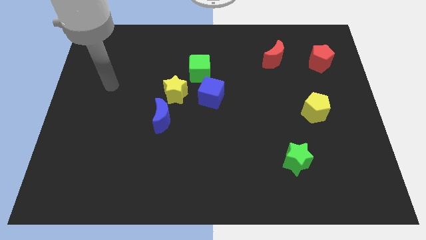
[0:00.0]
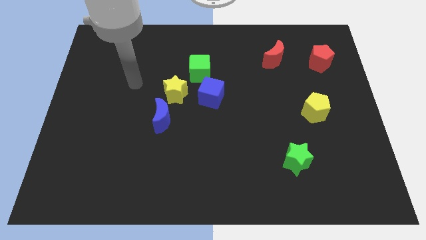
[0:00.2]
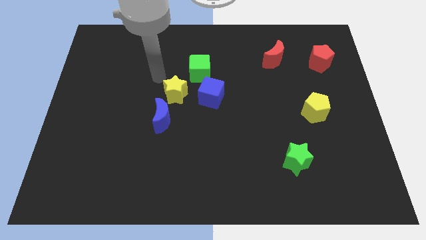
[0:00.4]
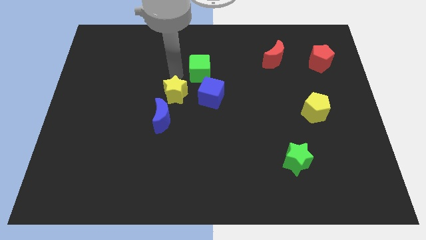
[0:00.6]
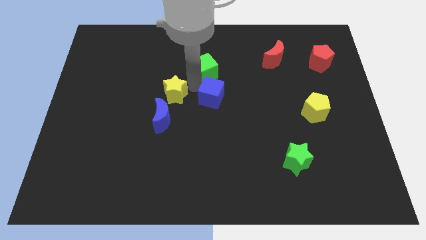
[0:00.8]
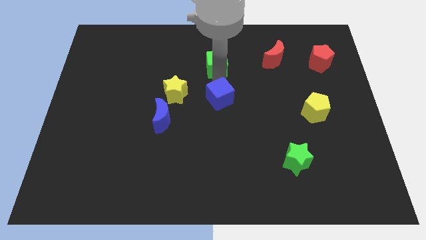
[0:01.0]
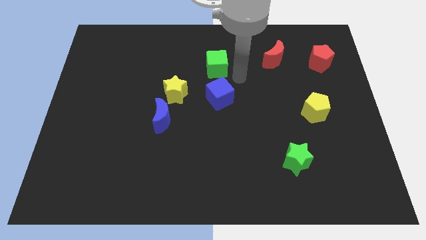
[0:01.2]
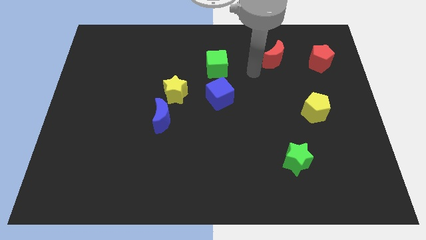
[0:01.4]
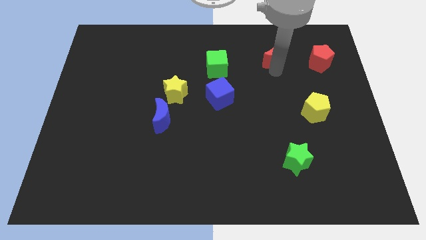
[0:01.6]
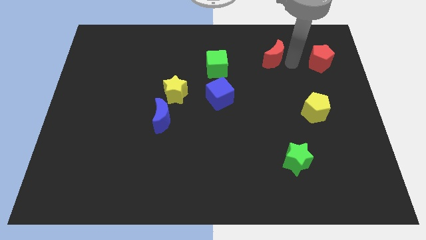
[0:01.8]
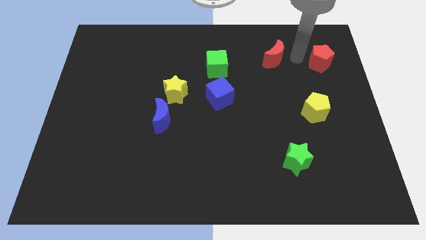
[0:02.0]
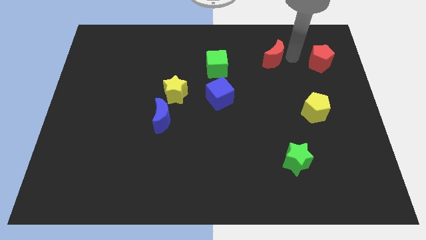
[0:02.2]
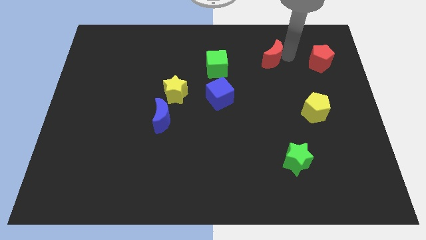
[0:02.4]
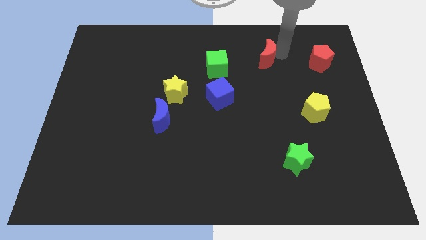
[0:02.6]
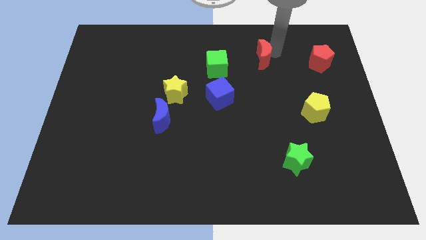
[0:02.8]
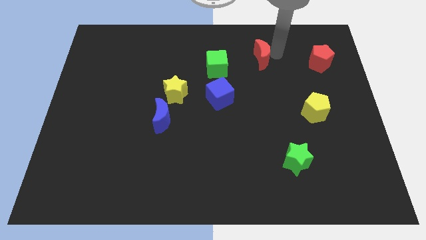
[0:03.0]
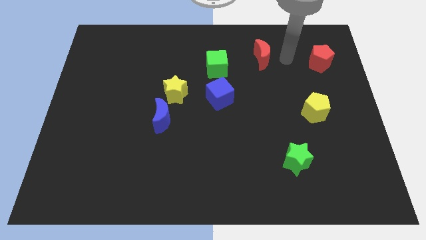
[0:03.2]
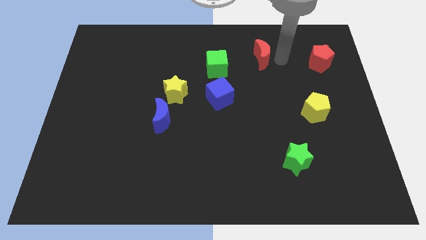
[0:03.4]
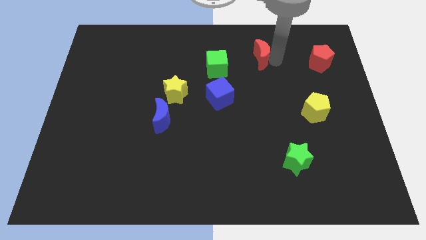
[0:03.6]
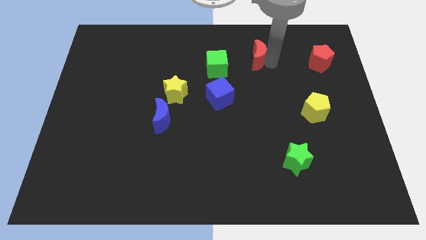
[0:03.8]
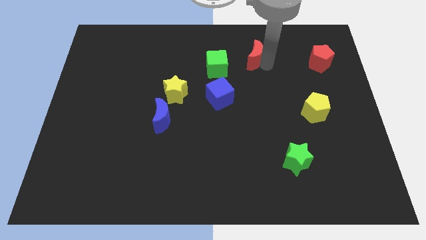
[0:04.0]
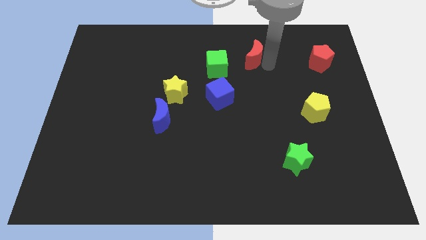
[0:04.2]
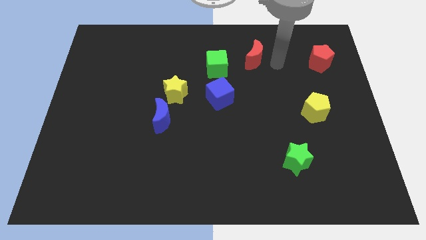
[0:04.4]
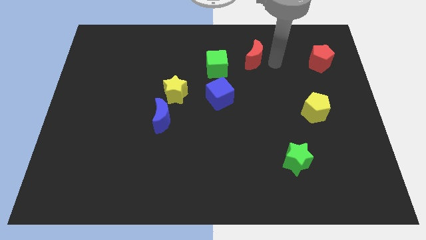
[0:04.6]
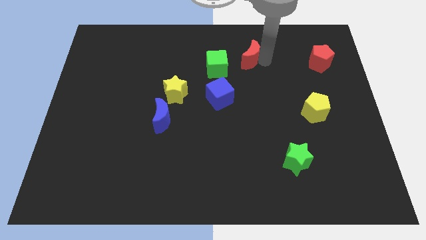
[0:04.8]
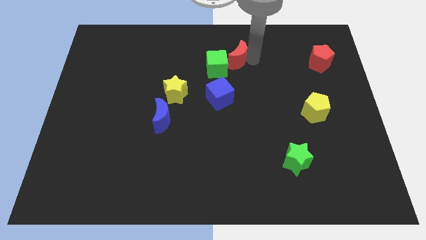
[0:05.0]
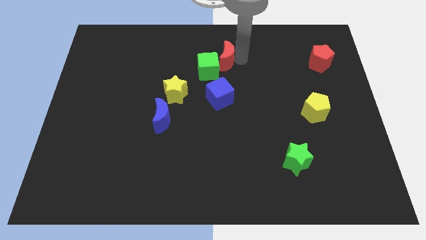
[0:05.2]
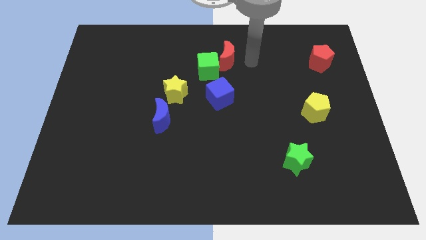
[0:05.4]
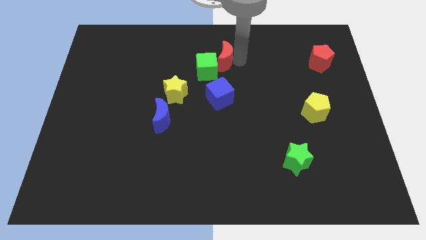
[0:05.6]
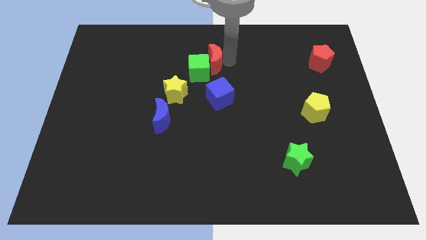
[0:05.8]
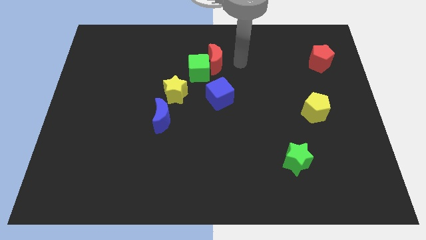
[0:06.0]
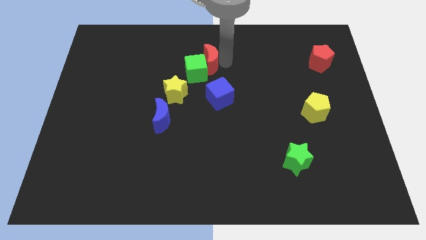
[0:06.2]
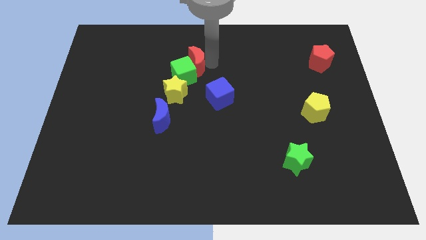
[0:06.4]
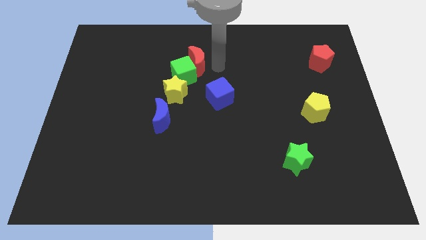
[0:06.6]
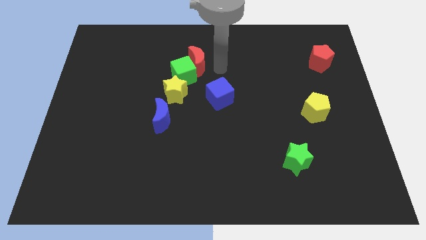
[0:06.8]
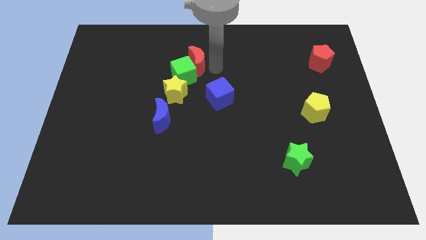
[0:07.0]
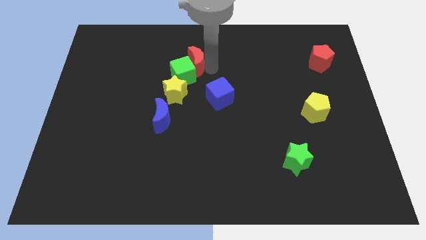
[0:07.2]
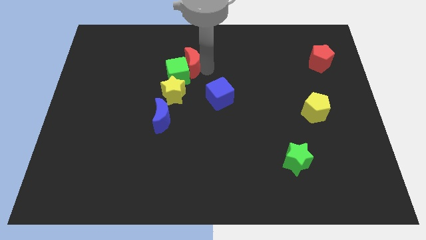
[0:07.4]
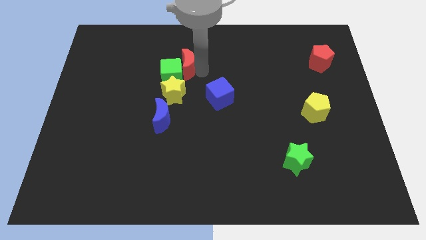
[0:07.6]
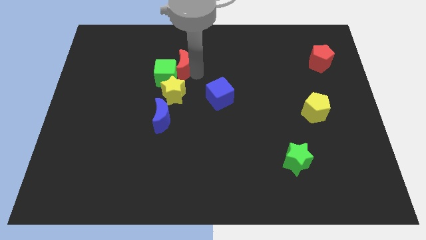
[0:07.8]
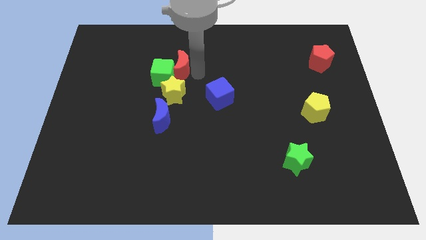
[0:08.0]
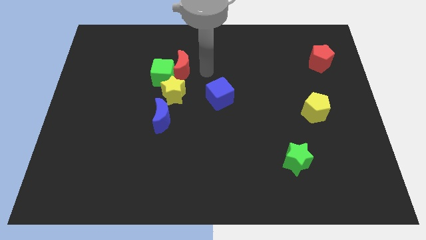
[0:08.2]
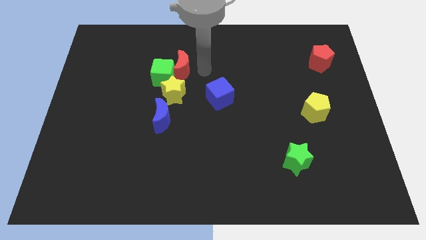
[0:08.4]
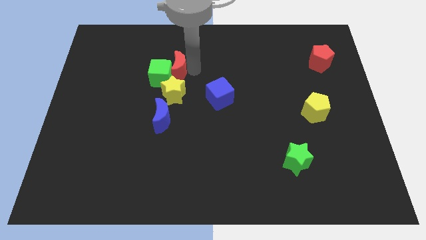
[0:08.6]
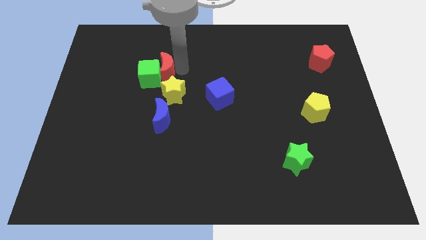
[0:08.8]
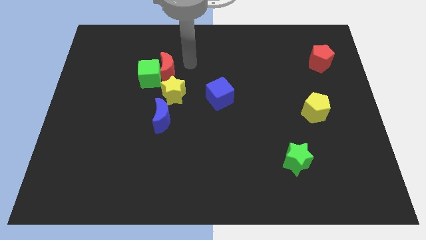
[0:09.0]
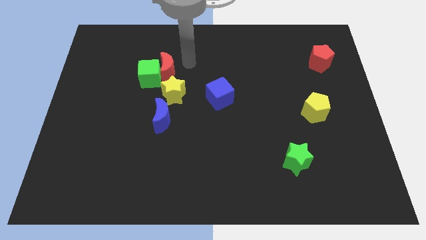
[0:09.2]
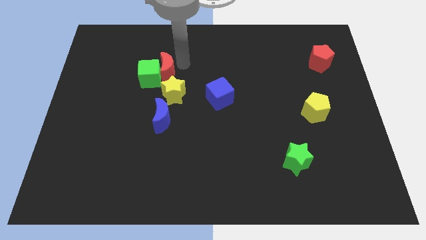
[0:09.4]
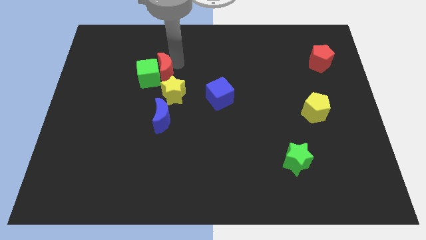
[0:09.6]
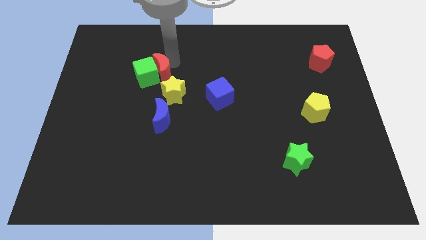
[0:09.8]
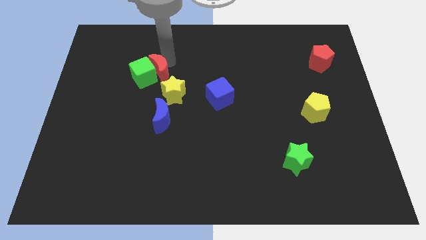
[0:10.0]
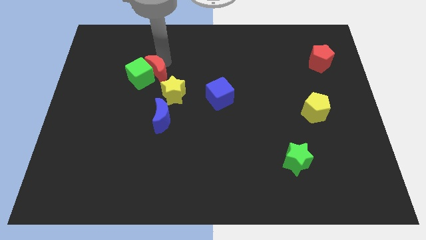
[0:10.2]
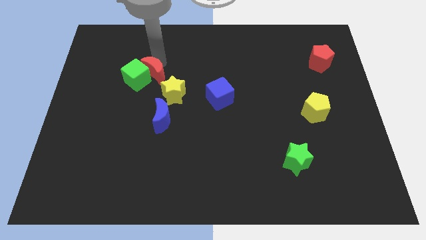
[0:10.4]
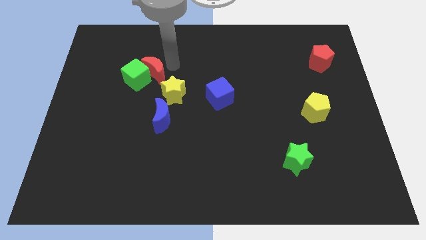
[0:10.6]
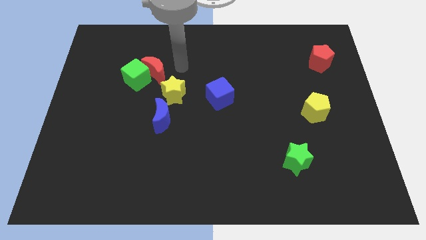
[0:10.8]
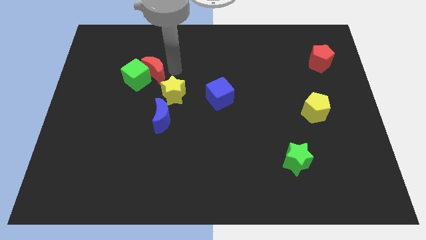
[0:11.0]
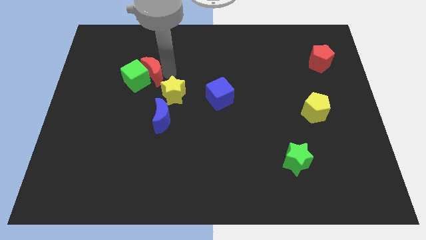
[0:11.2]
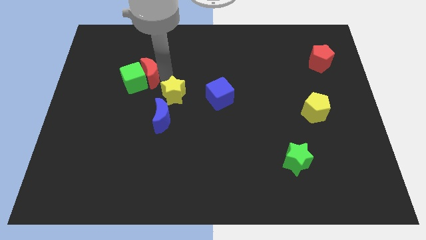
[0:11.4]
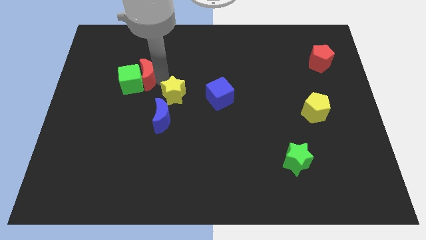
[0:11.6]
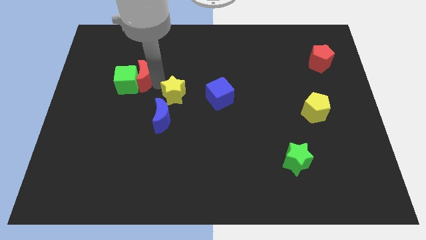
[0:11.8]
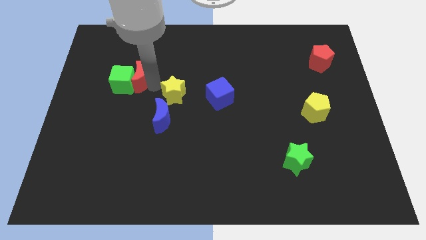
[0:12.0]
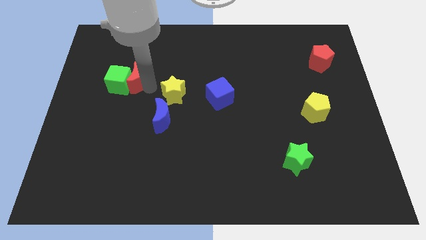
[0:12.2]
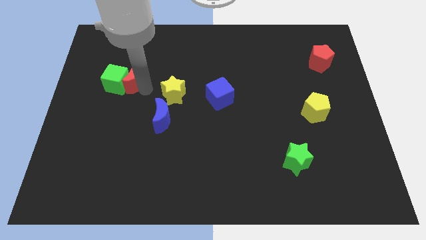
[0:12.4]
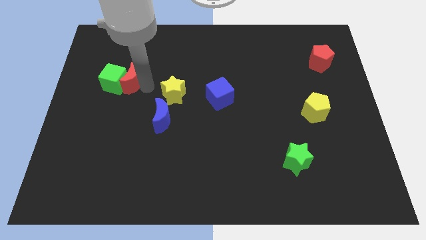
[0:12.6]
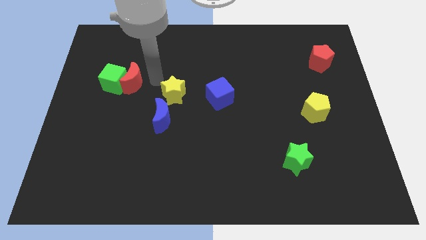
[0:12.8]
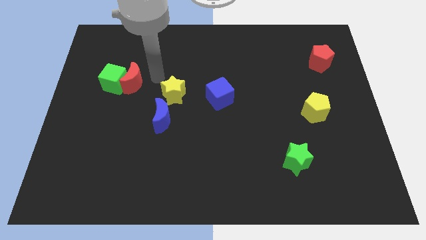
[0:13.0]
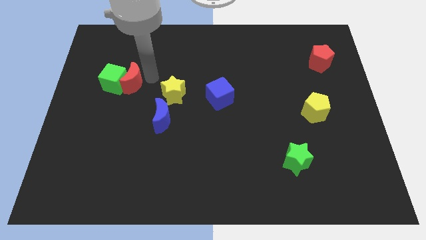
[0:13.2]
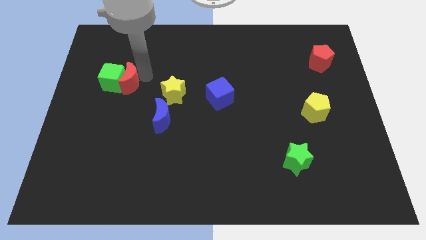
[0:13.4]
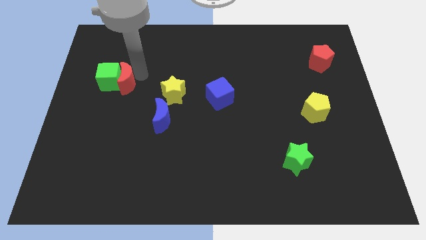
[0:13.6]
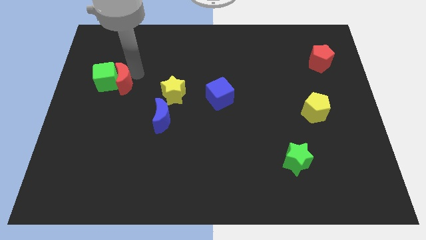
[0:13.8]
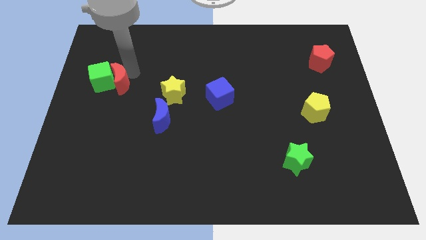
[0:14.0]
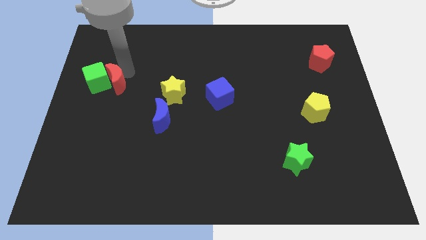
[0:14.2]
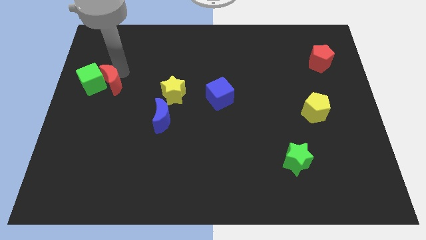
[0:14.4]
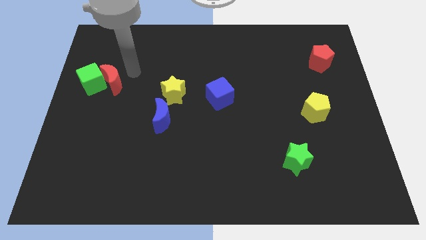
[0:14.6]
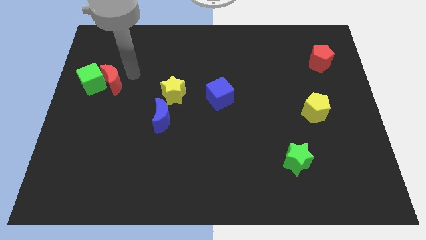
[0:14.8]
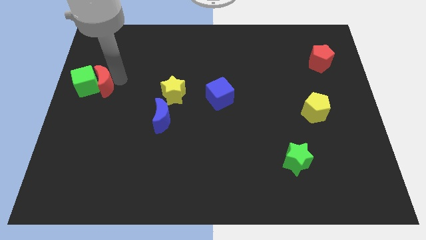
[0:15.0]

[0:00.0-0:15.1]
put the red moon to the center left
